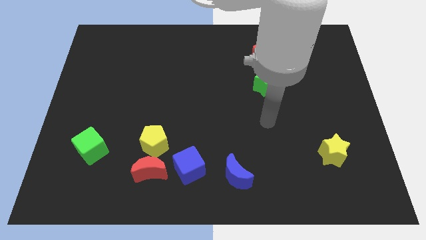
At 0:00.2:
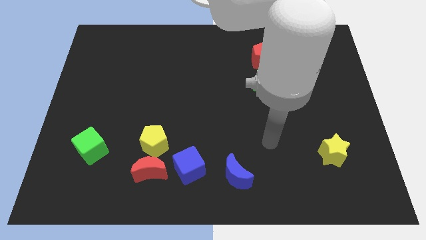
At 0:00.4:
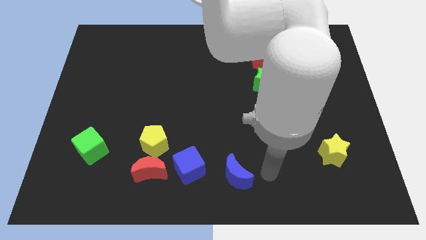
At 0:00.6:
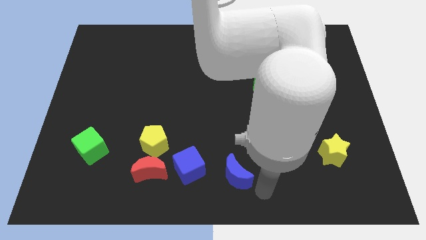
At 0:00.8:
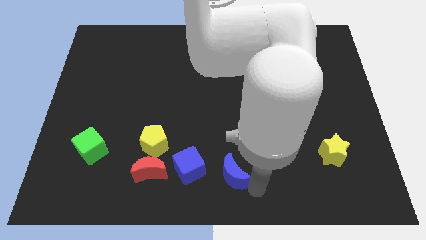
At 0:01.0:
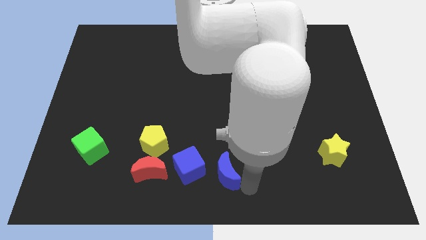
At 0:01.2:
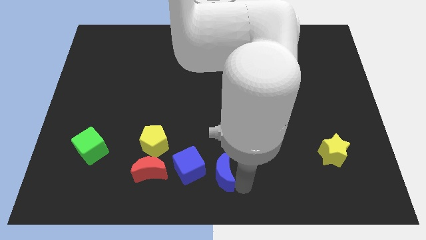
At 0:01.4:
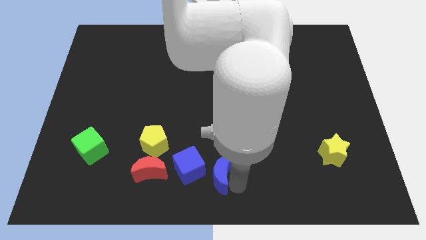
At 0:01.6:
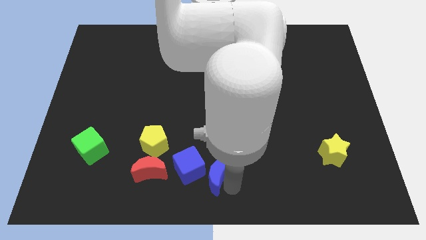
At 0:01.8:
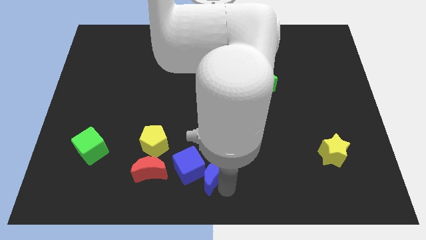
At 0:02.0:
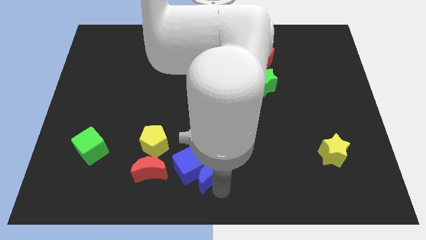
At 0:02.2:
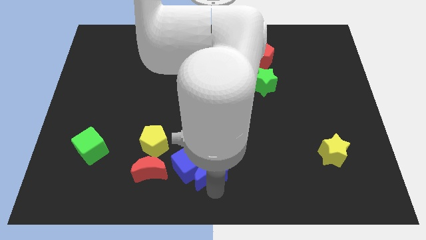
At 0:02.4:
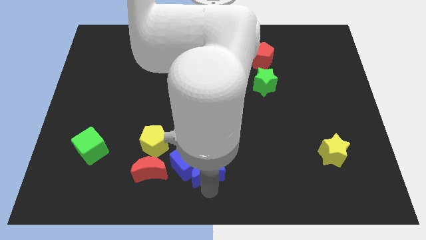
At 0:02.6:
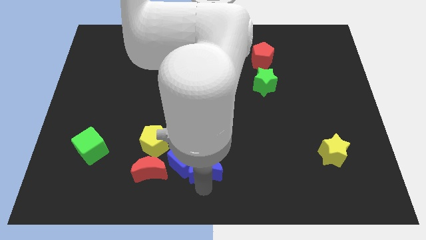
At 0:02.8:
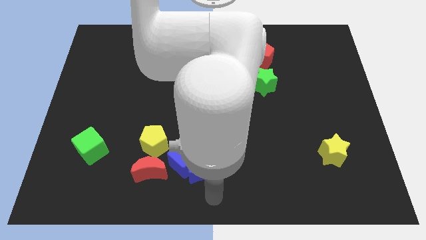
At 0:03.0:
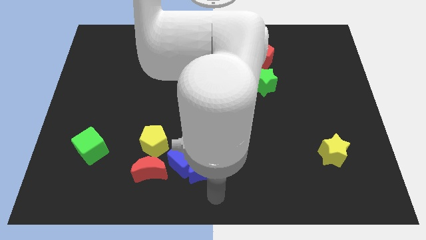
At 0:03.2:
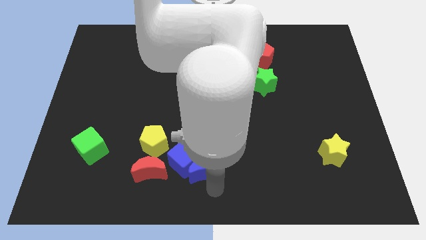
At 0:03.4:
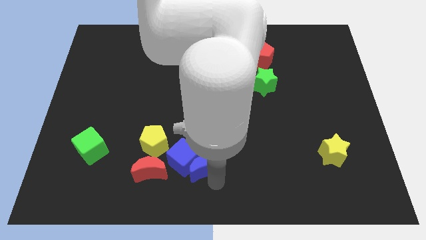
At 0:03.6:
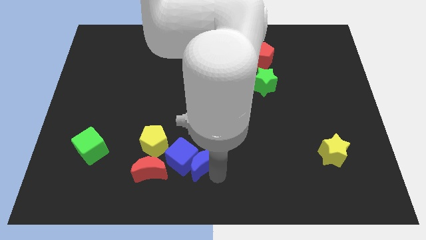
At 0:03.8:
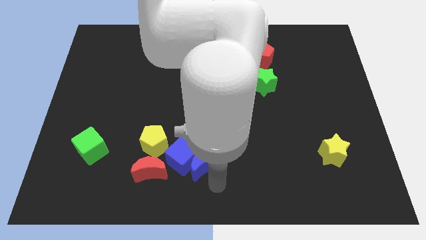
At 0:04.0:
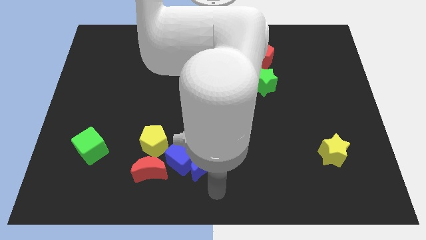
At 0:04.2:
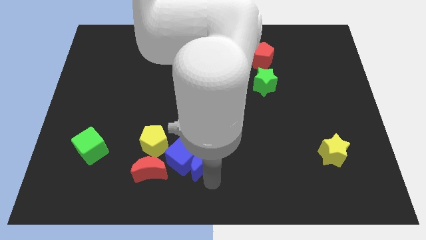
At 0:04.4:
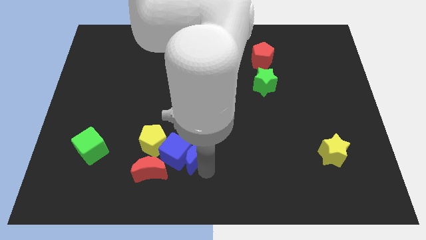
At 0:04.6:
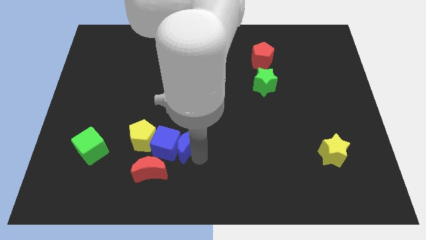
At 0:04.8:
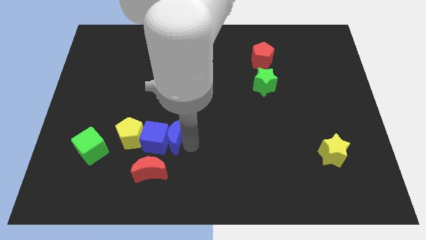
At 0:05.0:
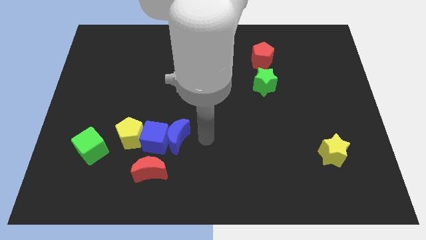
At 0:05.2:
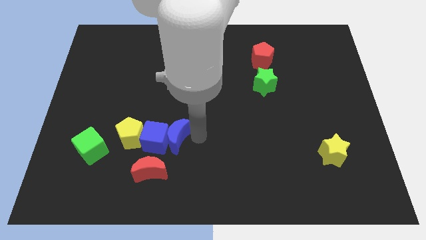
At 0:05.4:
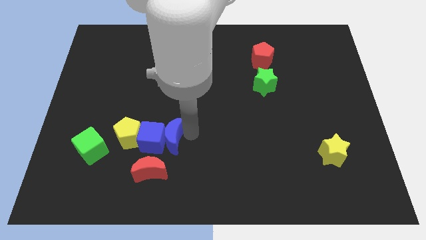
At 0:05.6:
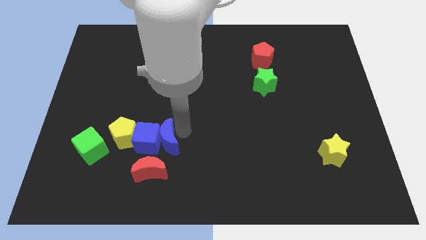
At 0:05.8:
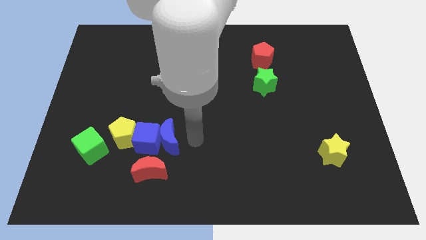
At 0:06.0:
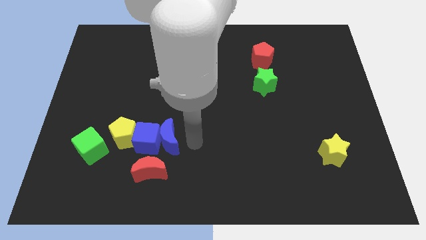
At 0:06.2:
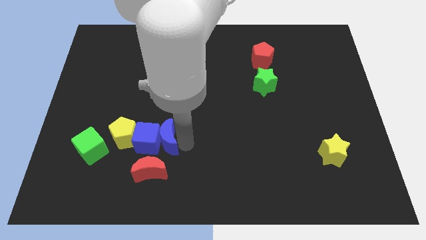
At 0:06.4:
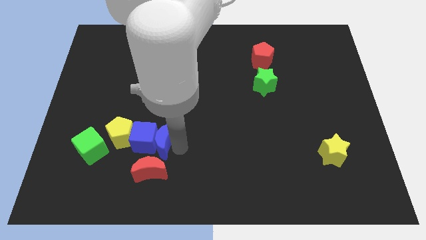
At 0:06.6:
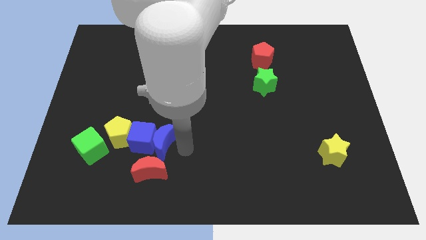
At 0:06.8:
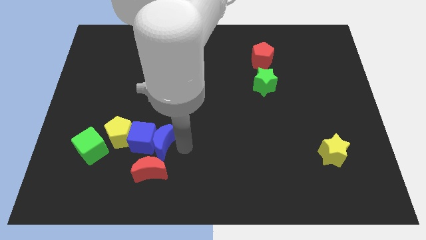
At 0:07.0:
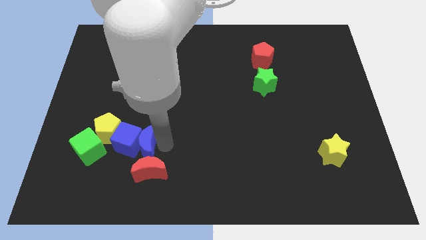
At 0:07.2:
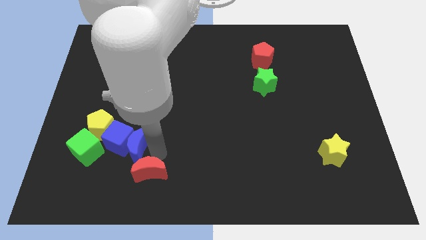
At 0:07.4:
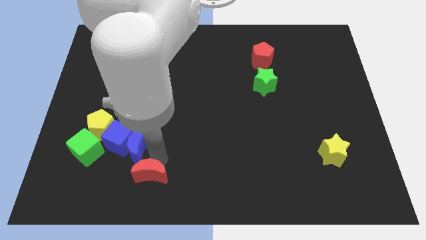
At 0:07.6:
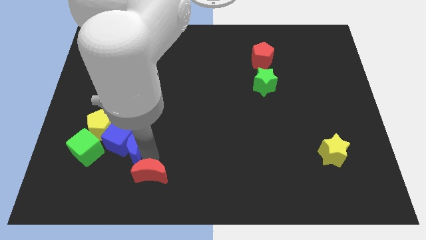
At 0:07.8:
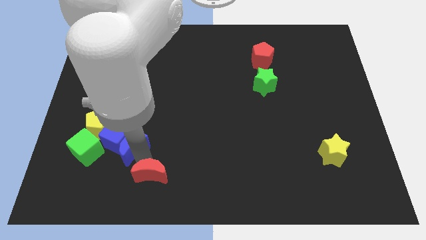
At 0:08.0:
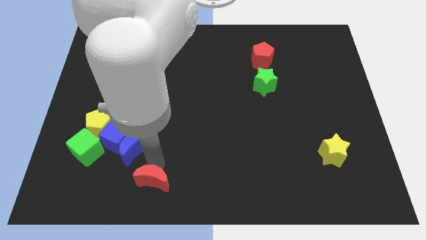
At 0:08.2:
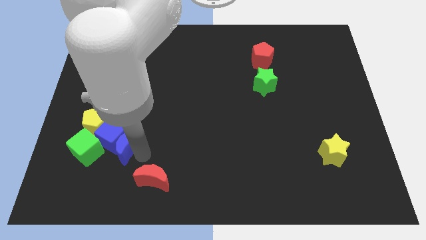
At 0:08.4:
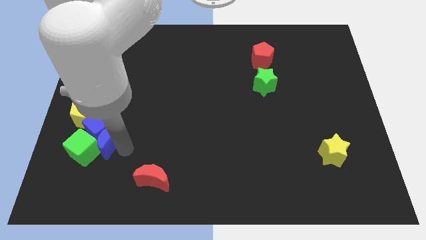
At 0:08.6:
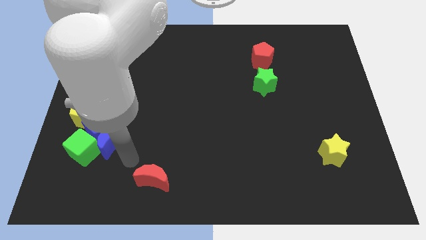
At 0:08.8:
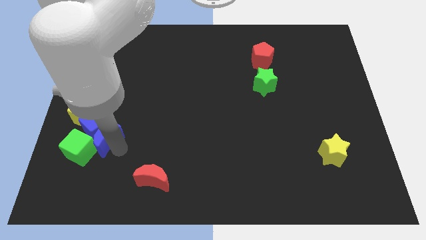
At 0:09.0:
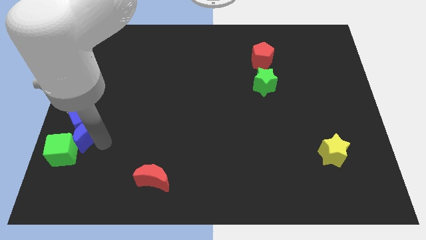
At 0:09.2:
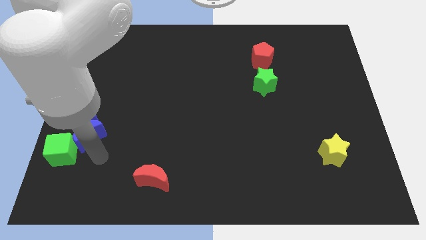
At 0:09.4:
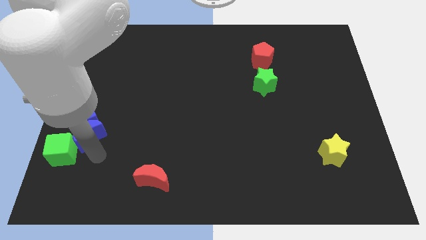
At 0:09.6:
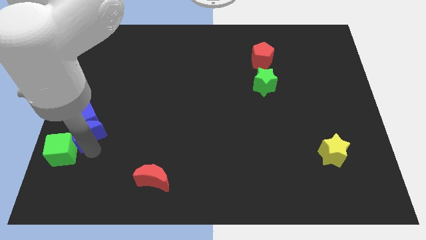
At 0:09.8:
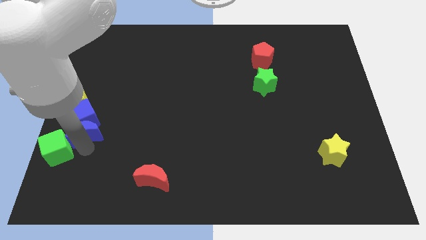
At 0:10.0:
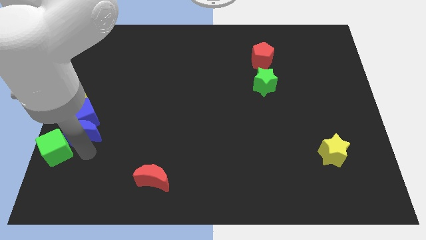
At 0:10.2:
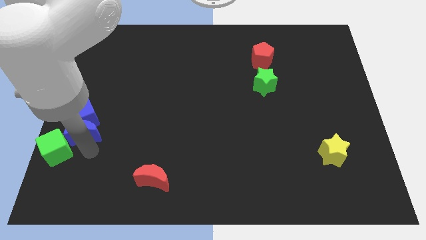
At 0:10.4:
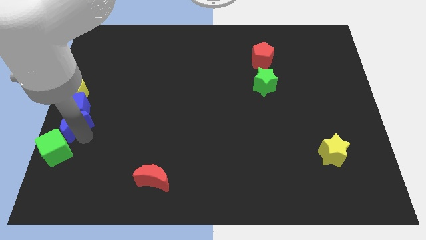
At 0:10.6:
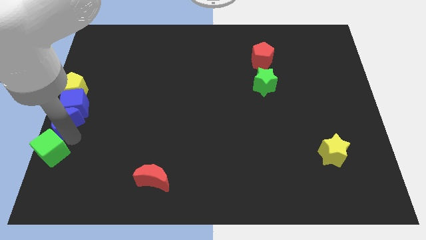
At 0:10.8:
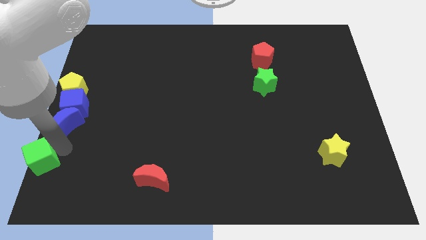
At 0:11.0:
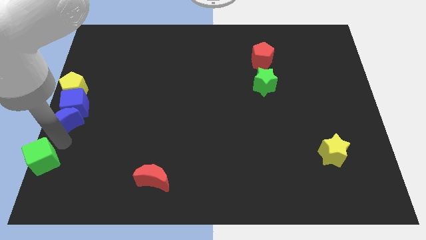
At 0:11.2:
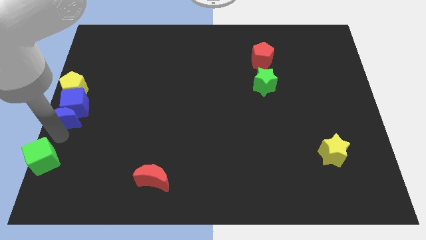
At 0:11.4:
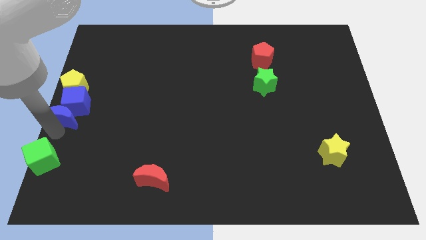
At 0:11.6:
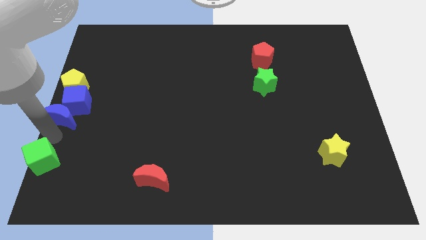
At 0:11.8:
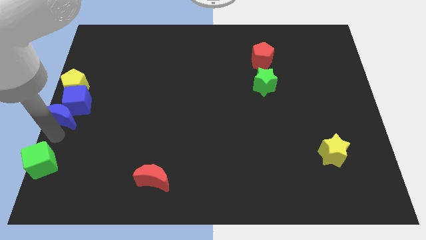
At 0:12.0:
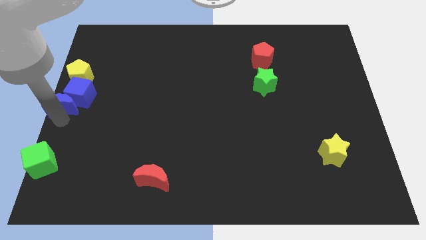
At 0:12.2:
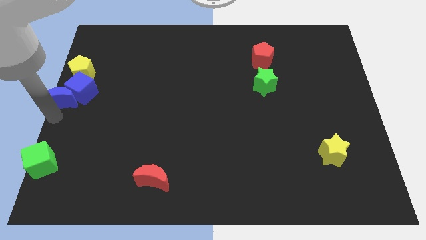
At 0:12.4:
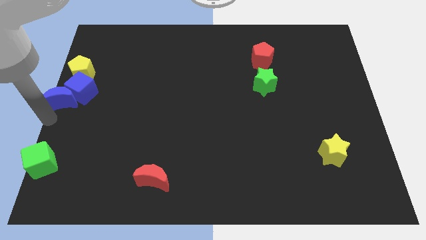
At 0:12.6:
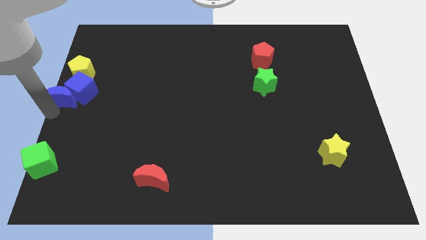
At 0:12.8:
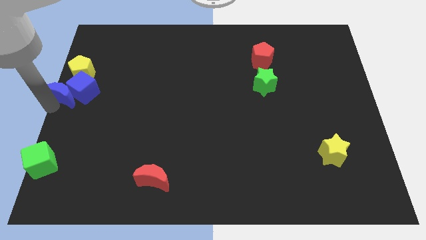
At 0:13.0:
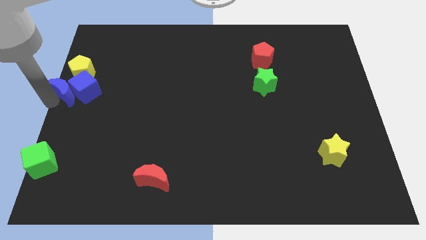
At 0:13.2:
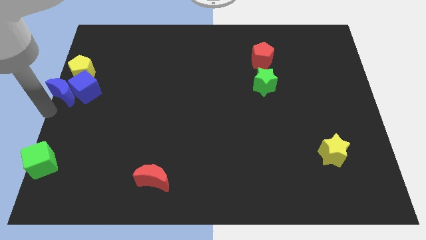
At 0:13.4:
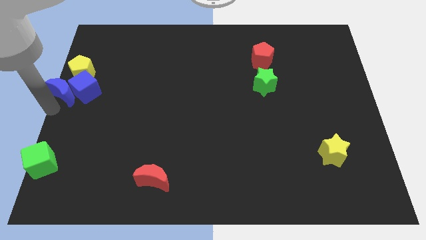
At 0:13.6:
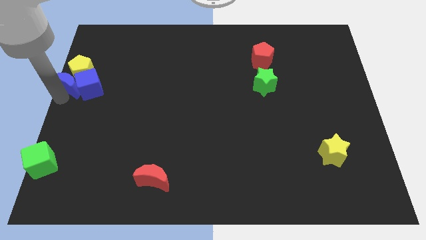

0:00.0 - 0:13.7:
push the blue moon next to the yellow pentagon

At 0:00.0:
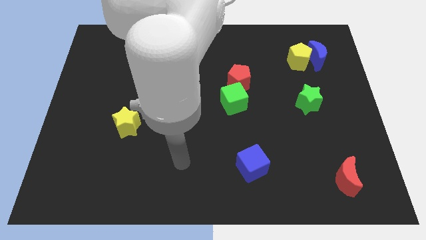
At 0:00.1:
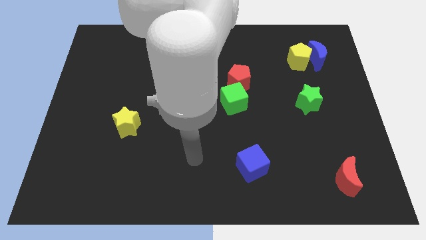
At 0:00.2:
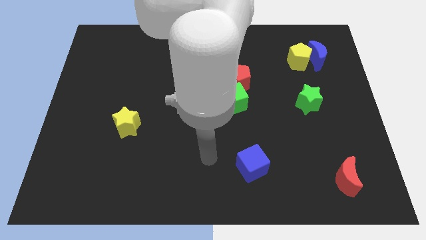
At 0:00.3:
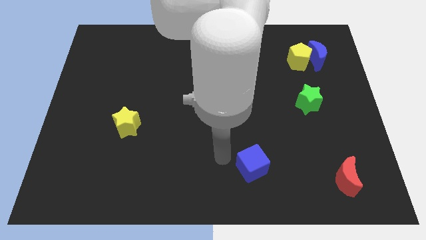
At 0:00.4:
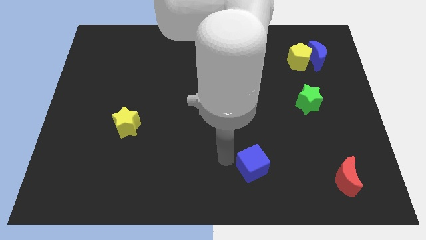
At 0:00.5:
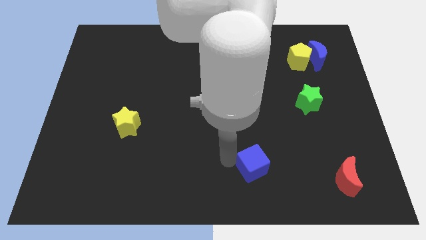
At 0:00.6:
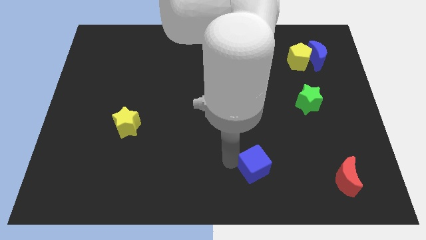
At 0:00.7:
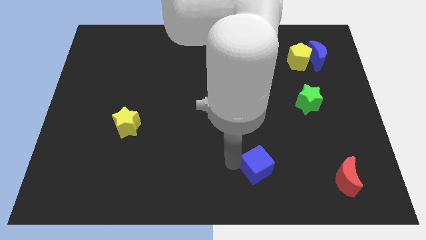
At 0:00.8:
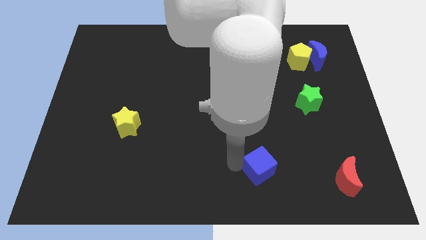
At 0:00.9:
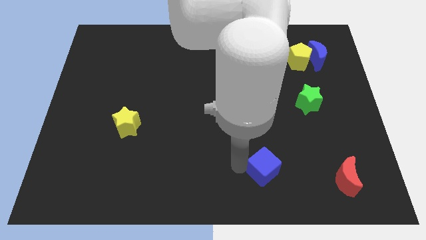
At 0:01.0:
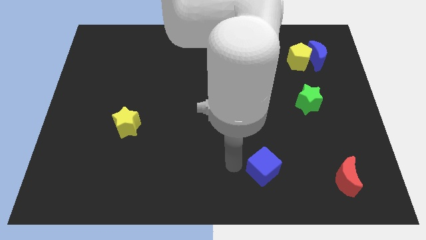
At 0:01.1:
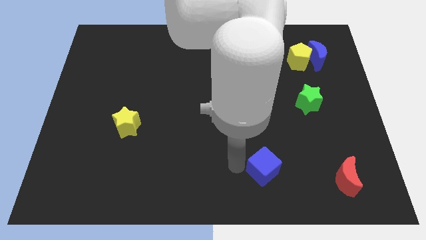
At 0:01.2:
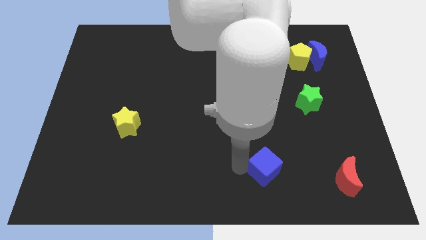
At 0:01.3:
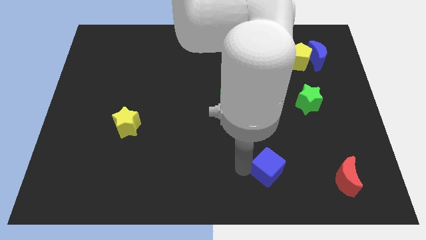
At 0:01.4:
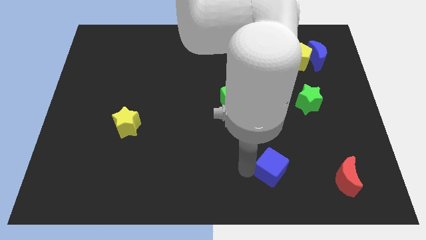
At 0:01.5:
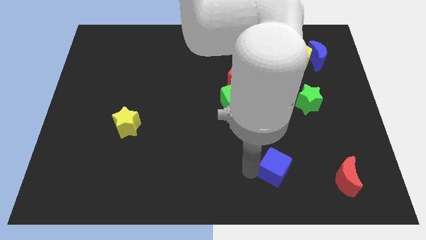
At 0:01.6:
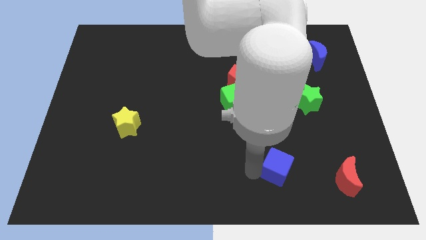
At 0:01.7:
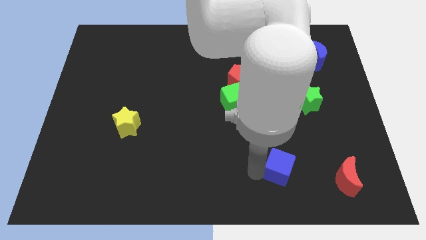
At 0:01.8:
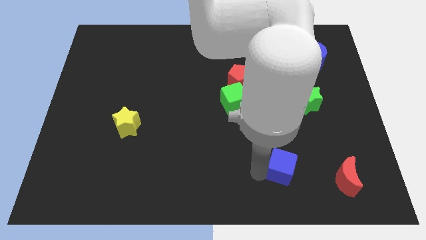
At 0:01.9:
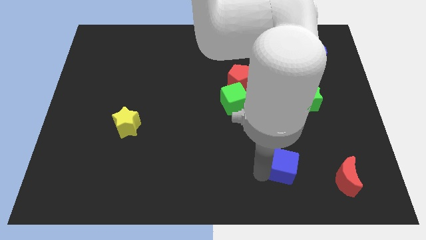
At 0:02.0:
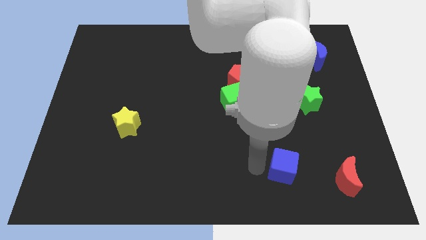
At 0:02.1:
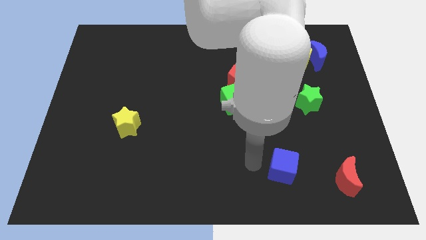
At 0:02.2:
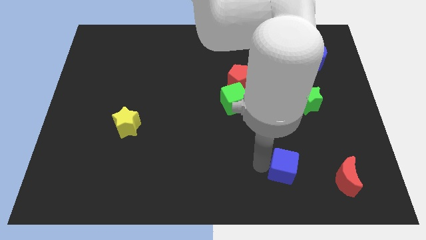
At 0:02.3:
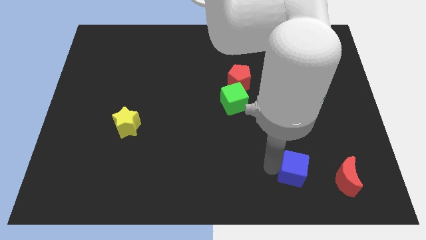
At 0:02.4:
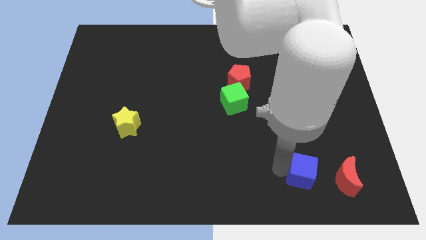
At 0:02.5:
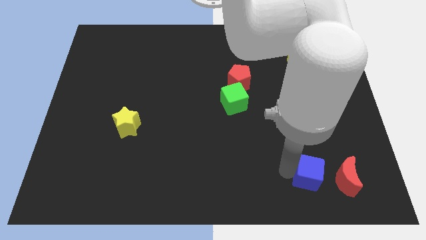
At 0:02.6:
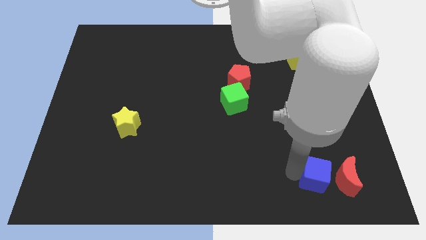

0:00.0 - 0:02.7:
put the blue cube close to the red moon
